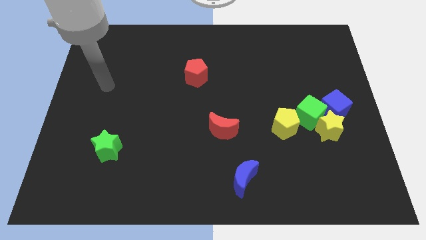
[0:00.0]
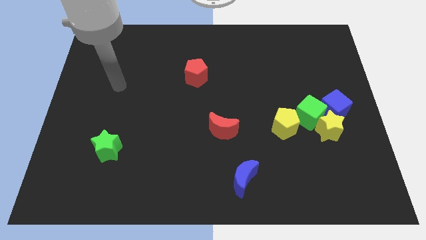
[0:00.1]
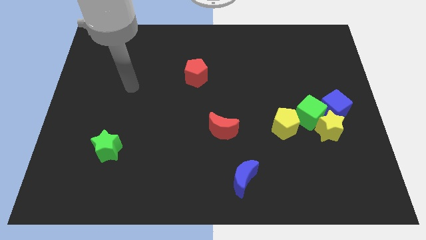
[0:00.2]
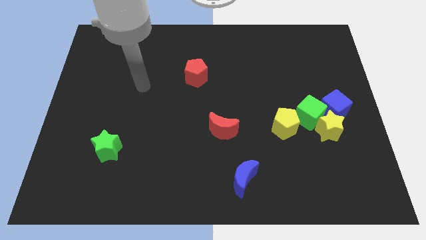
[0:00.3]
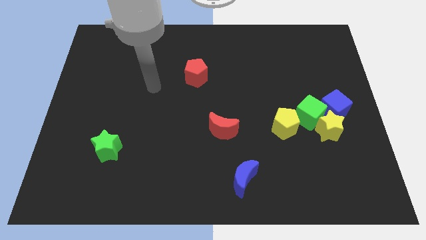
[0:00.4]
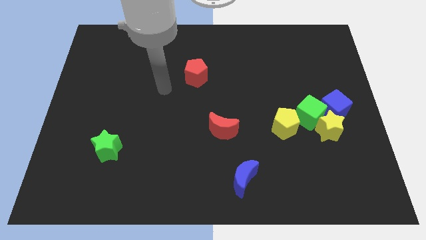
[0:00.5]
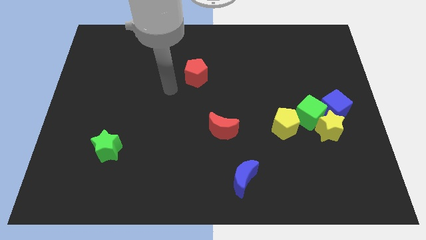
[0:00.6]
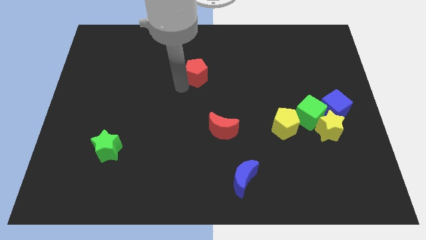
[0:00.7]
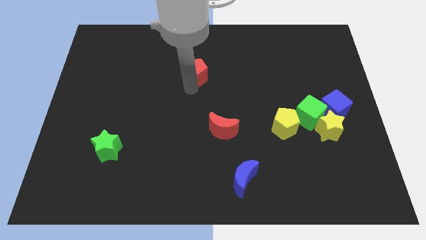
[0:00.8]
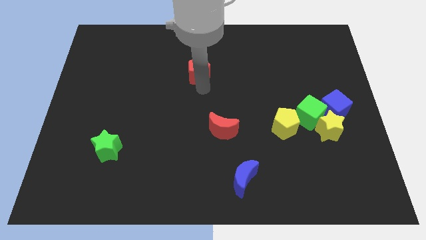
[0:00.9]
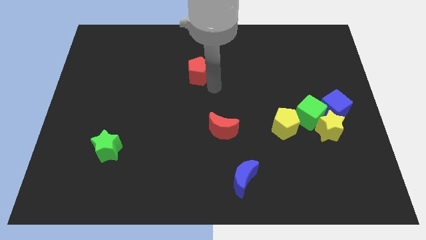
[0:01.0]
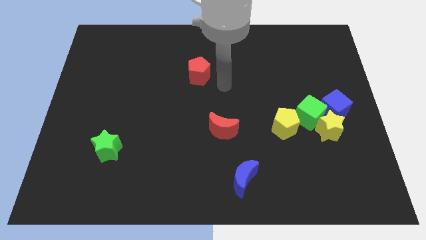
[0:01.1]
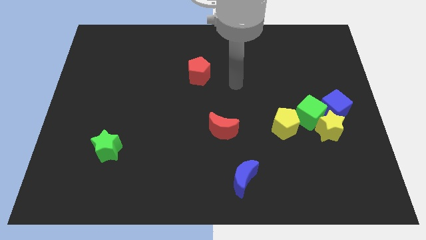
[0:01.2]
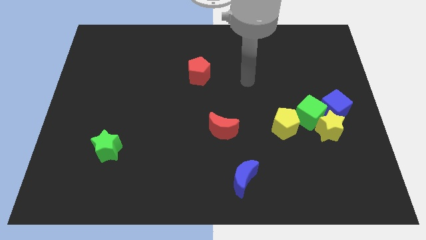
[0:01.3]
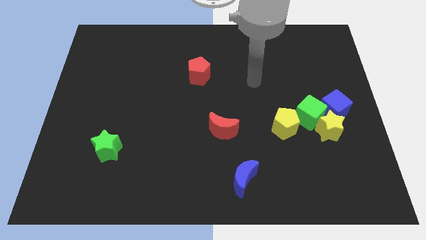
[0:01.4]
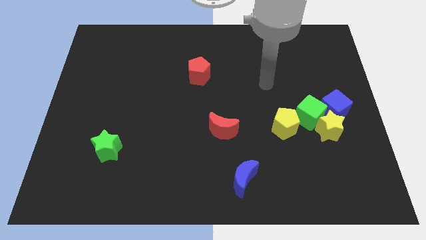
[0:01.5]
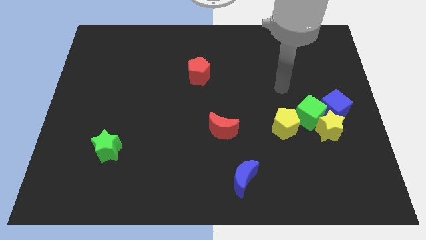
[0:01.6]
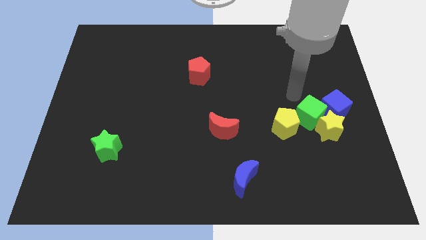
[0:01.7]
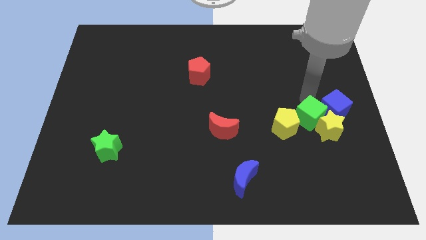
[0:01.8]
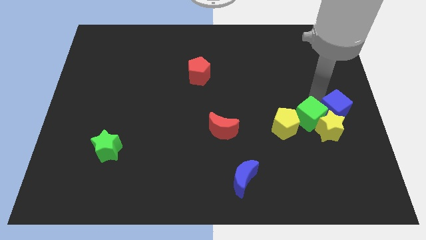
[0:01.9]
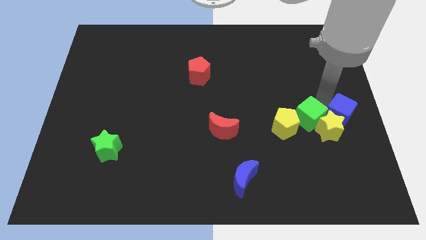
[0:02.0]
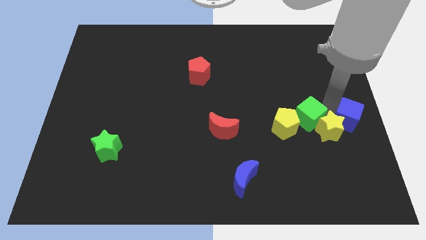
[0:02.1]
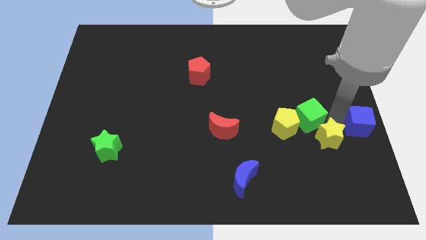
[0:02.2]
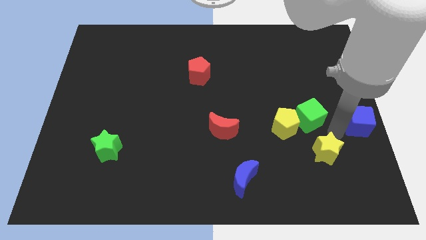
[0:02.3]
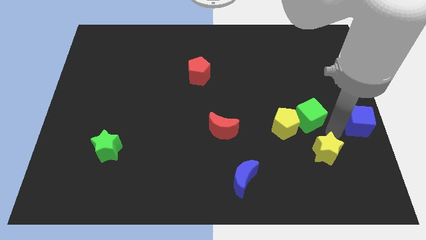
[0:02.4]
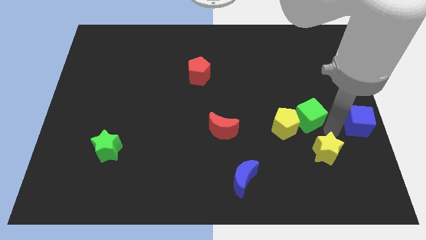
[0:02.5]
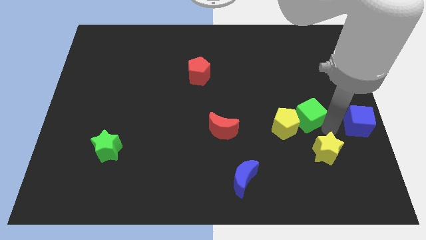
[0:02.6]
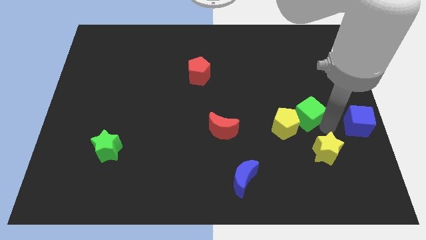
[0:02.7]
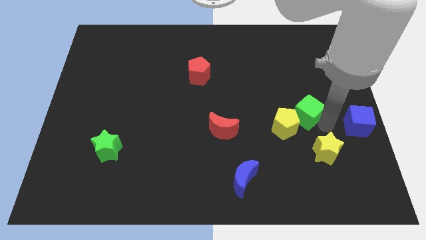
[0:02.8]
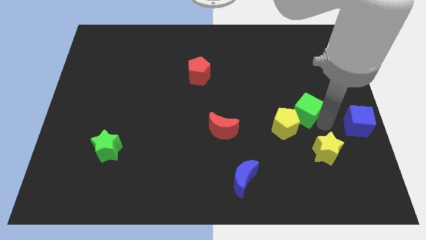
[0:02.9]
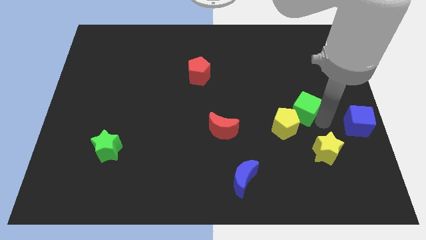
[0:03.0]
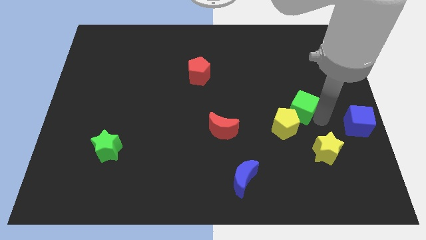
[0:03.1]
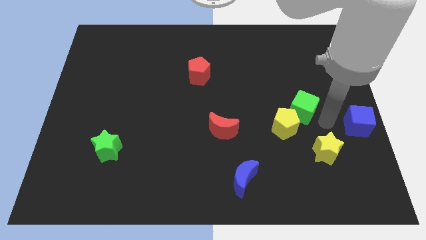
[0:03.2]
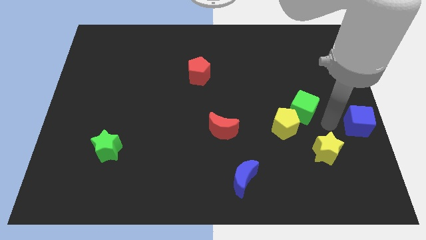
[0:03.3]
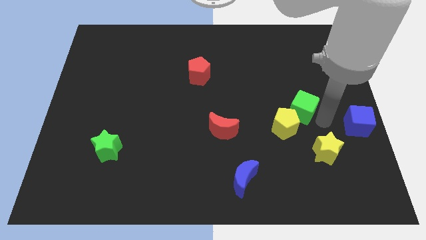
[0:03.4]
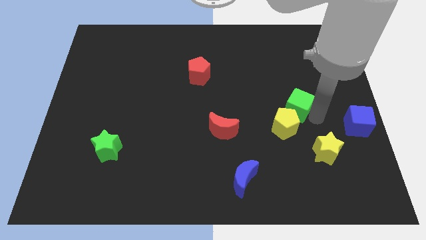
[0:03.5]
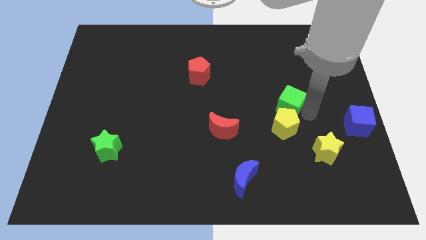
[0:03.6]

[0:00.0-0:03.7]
separate the green cube from the group of blocks

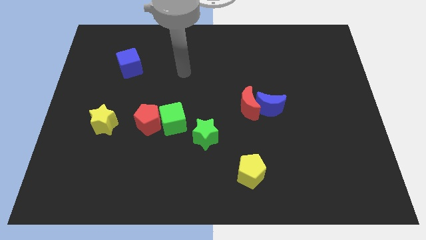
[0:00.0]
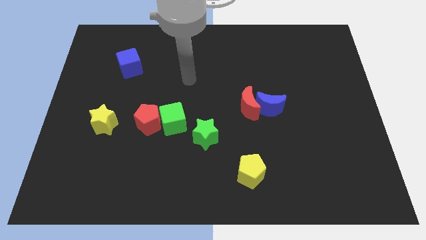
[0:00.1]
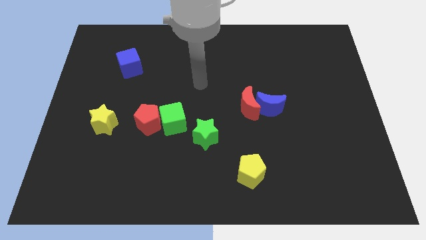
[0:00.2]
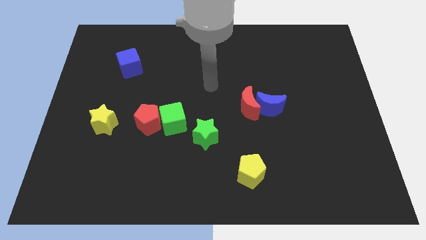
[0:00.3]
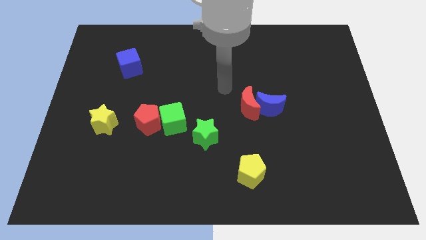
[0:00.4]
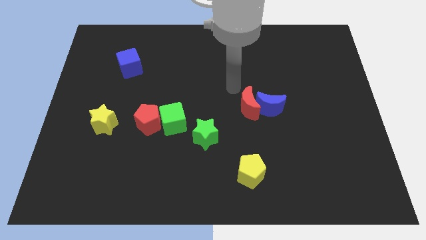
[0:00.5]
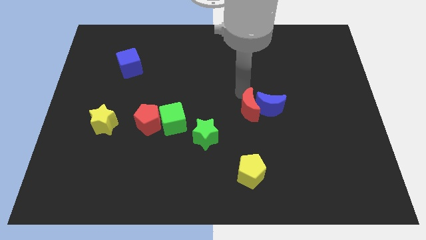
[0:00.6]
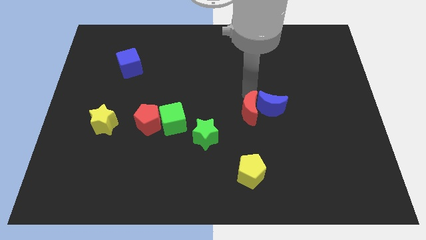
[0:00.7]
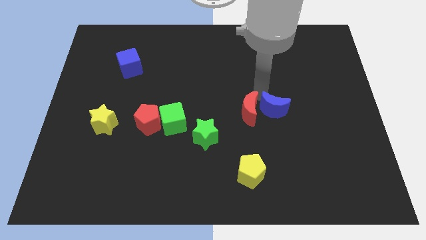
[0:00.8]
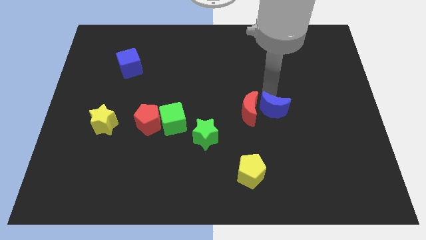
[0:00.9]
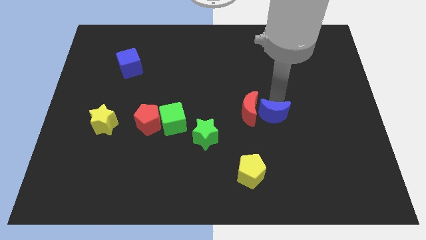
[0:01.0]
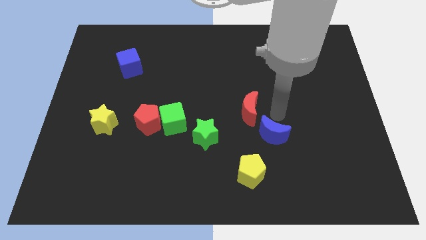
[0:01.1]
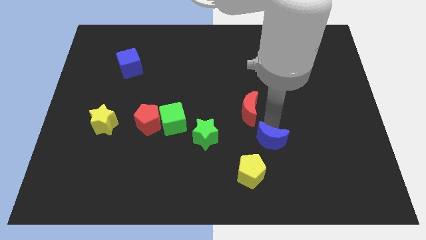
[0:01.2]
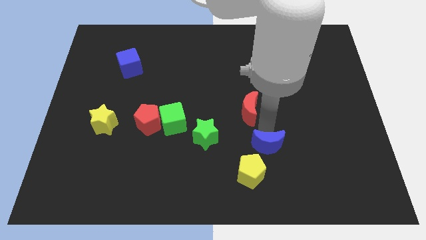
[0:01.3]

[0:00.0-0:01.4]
move the red moon away from the blue moon

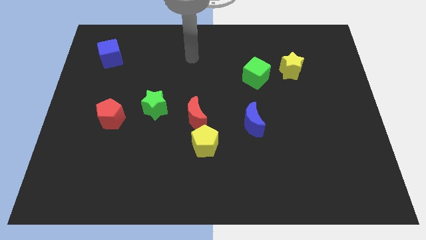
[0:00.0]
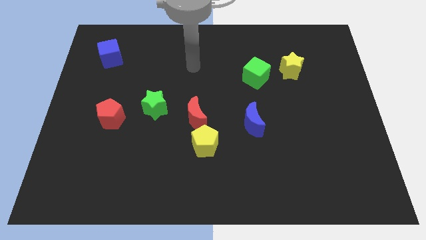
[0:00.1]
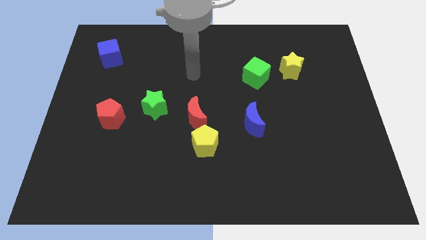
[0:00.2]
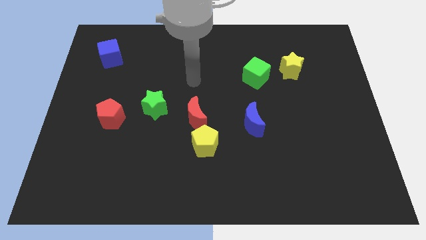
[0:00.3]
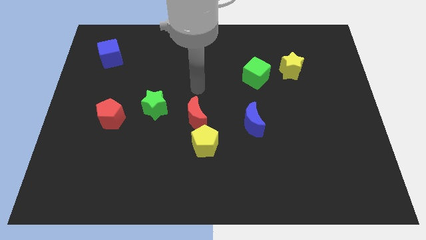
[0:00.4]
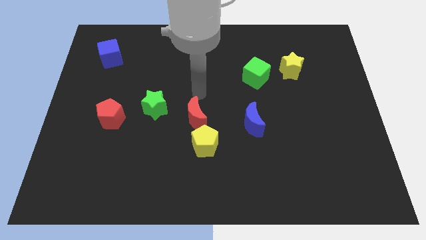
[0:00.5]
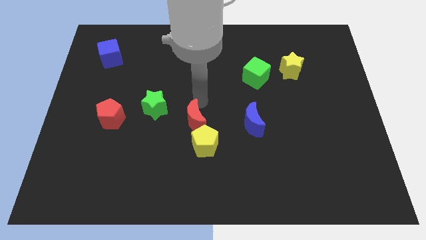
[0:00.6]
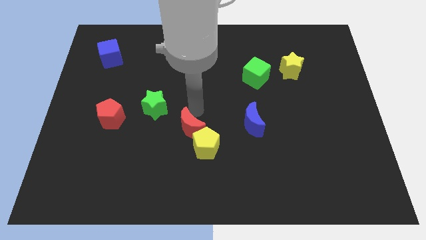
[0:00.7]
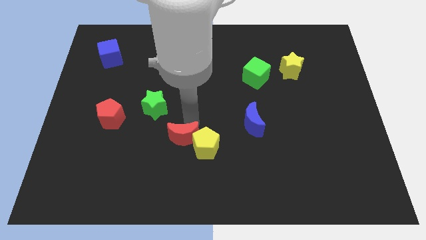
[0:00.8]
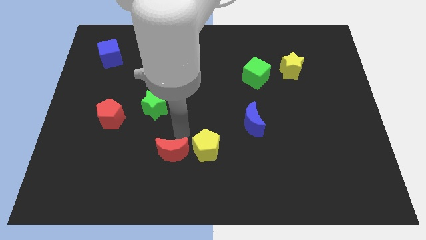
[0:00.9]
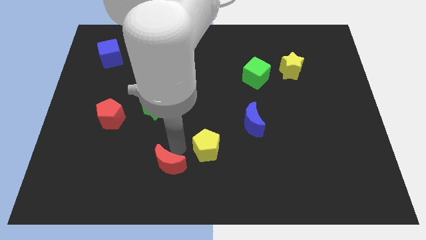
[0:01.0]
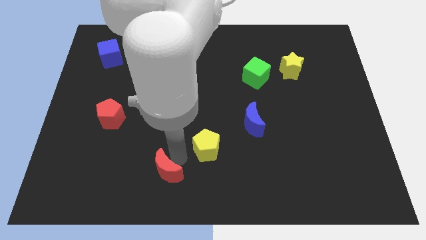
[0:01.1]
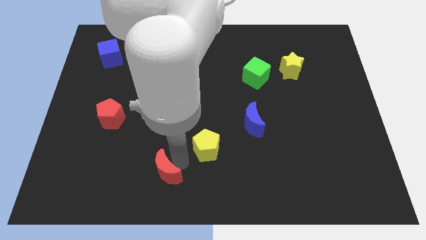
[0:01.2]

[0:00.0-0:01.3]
pull the yellow pentagon apart from the red moon

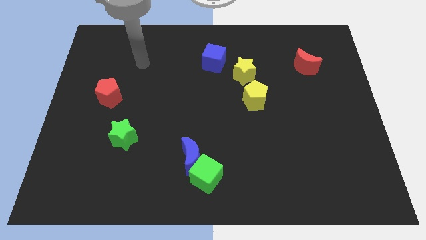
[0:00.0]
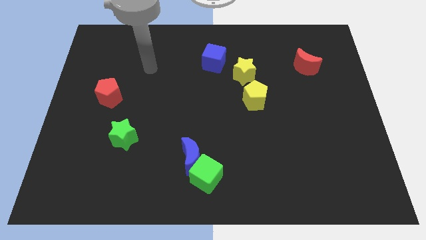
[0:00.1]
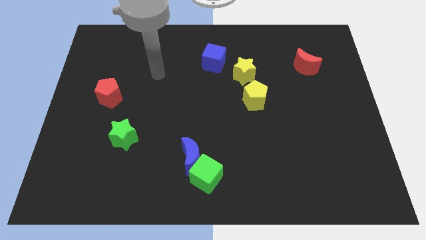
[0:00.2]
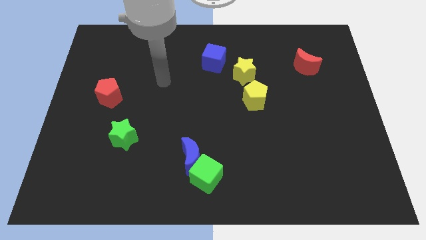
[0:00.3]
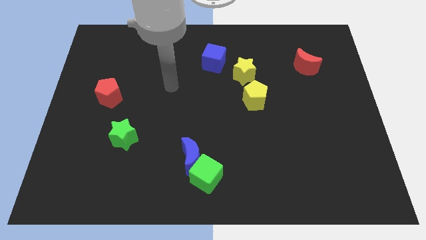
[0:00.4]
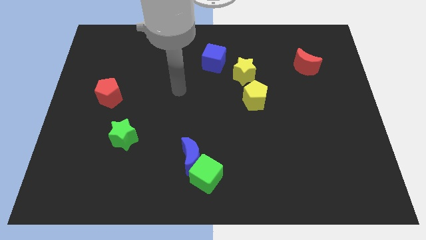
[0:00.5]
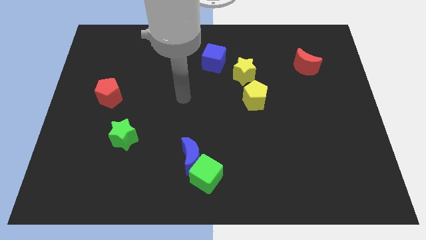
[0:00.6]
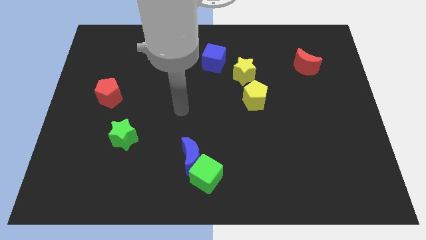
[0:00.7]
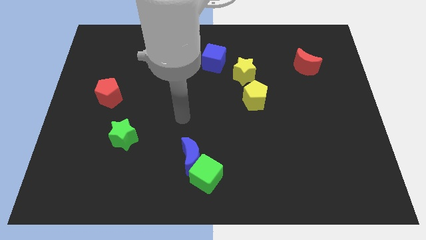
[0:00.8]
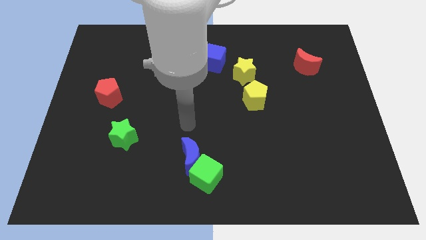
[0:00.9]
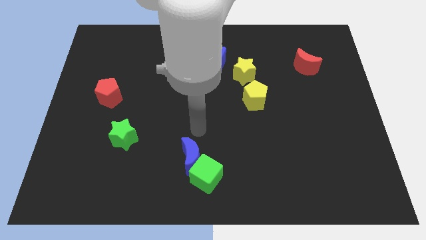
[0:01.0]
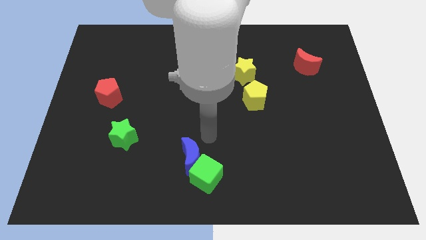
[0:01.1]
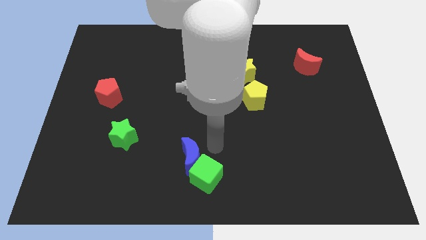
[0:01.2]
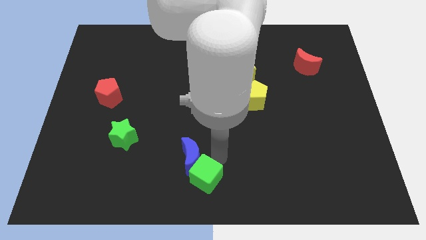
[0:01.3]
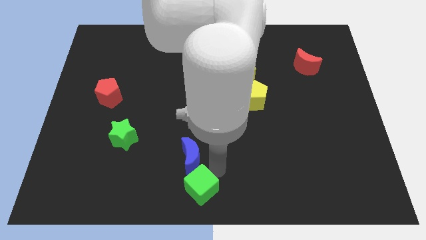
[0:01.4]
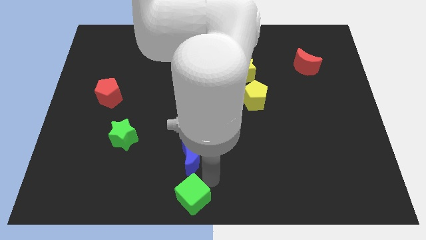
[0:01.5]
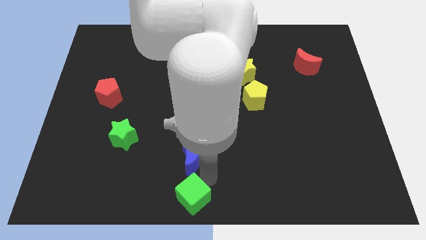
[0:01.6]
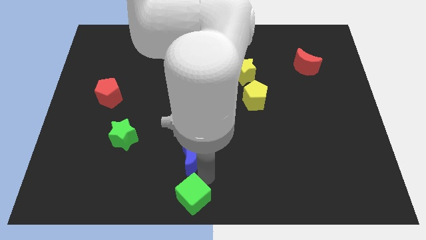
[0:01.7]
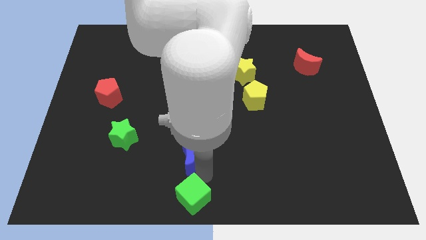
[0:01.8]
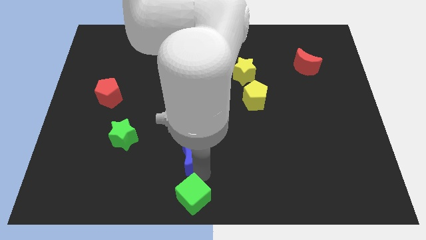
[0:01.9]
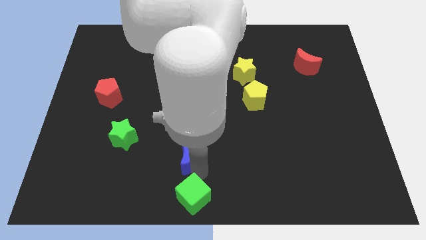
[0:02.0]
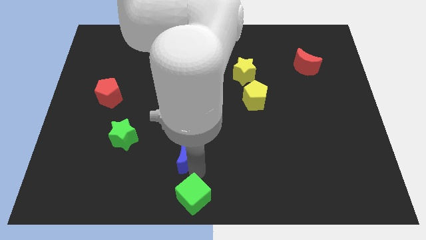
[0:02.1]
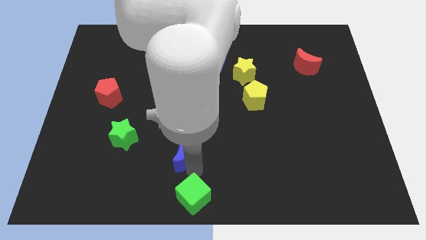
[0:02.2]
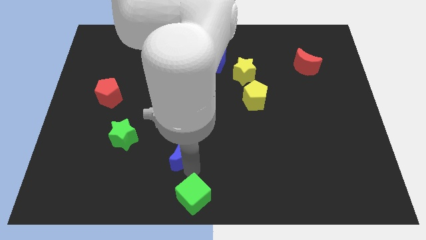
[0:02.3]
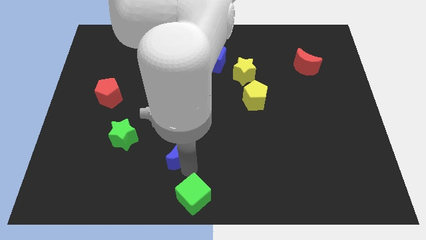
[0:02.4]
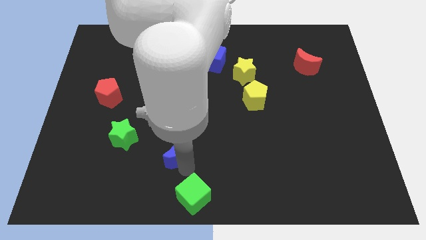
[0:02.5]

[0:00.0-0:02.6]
pull the blue moon apart from the green cube

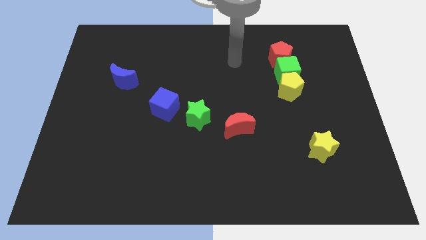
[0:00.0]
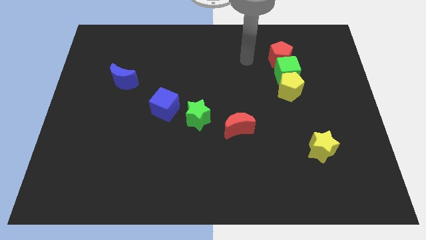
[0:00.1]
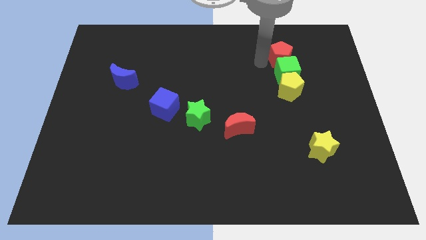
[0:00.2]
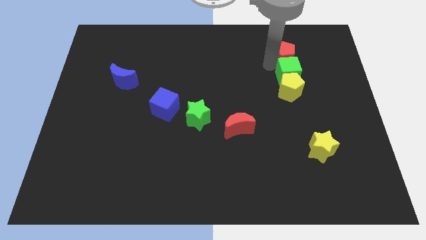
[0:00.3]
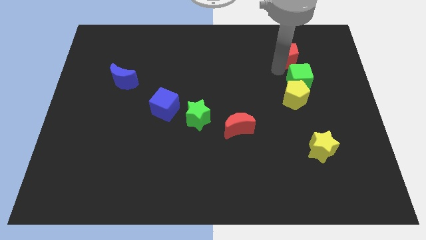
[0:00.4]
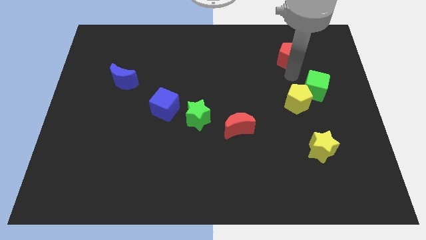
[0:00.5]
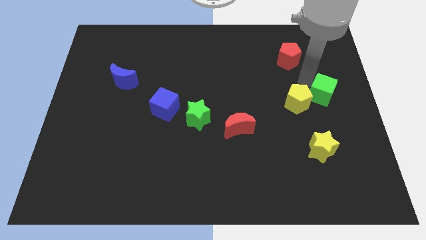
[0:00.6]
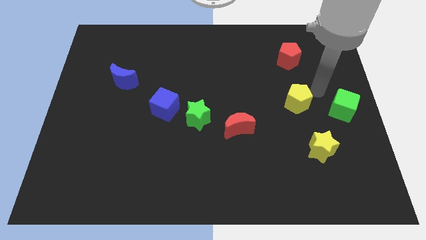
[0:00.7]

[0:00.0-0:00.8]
move the yellow pentagon away from the green cube
